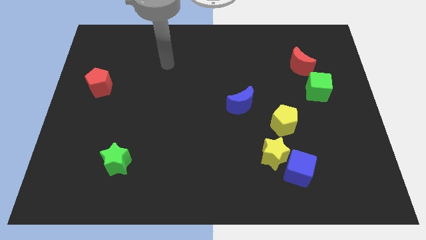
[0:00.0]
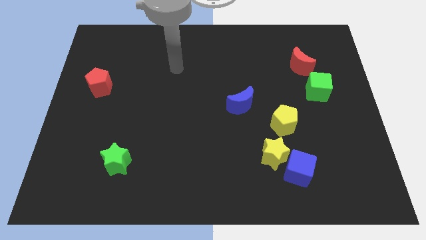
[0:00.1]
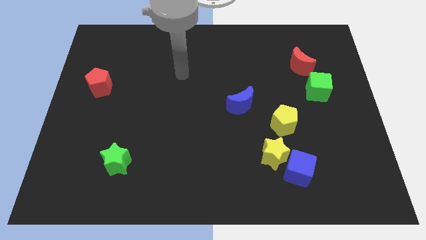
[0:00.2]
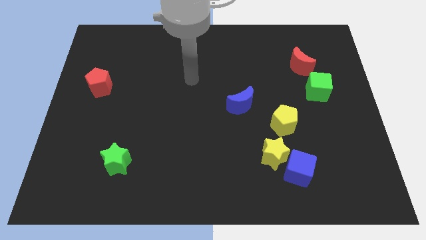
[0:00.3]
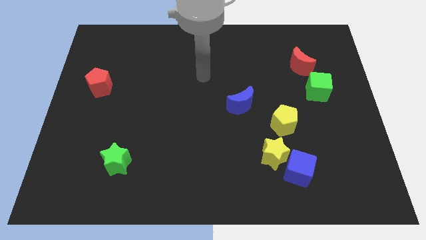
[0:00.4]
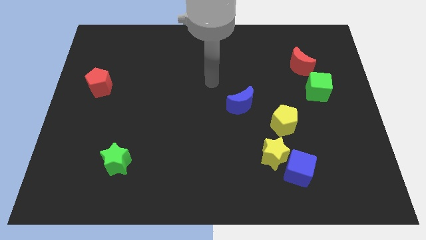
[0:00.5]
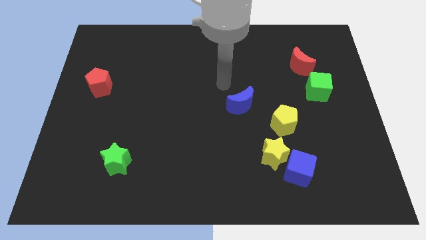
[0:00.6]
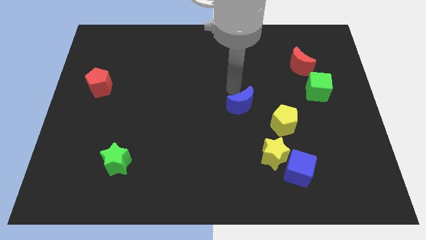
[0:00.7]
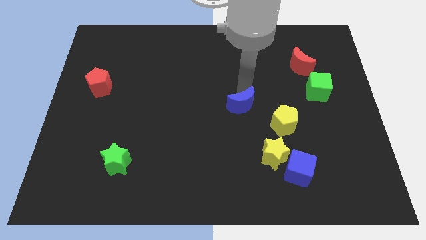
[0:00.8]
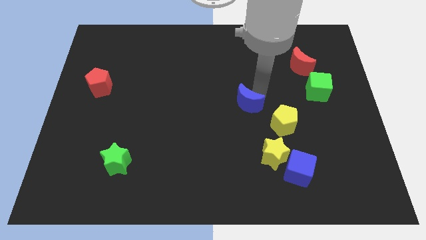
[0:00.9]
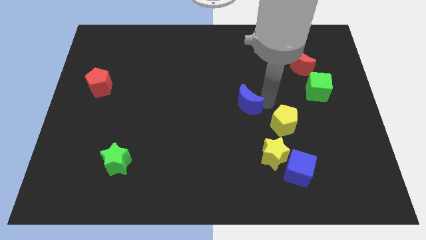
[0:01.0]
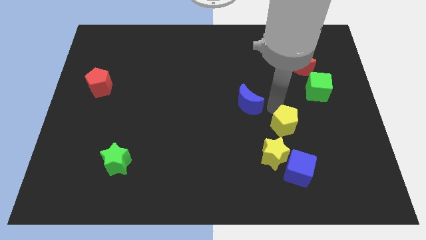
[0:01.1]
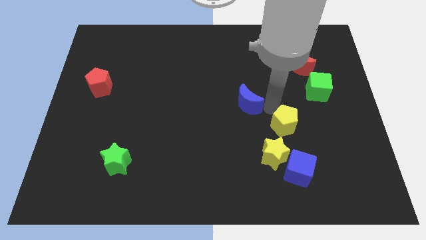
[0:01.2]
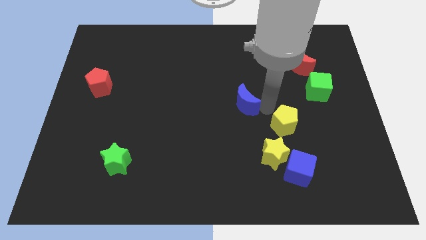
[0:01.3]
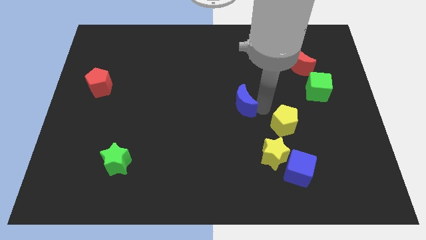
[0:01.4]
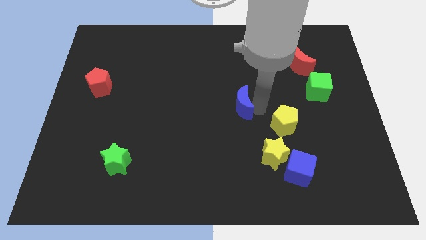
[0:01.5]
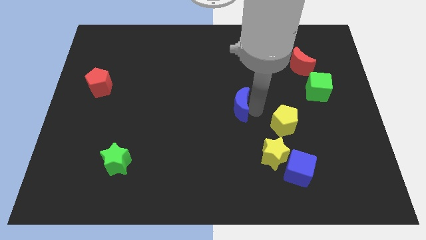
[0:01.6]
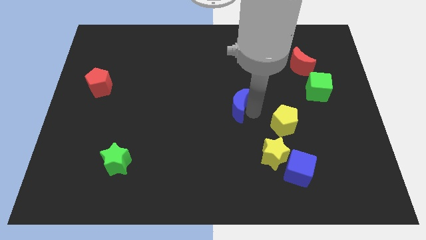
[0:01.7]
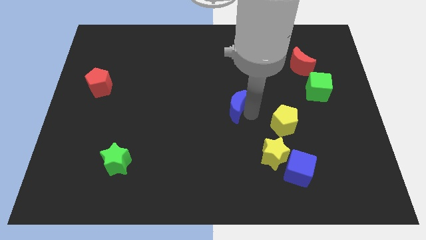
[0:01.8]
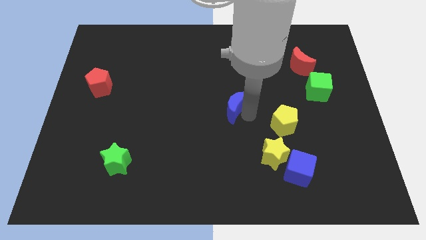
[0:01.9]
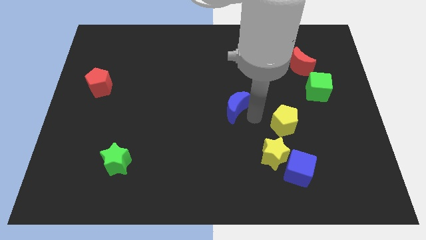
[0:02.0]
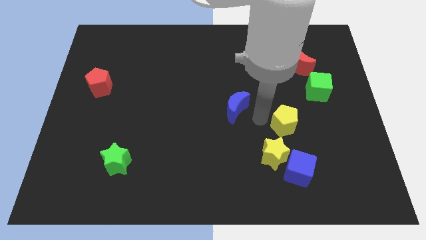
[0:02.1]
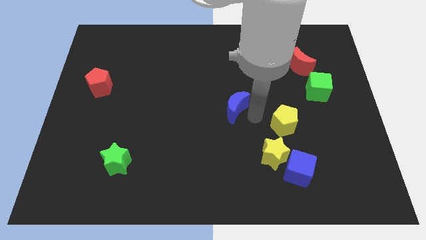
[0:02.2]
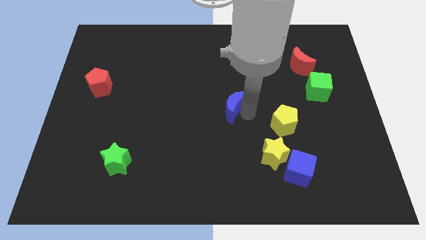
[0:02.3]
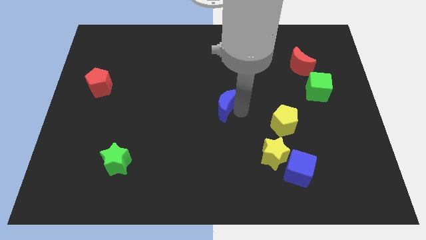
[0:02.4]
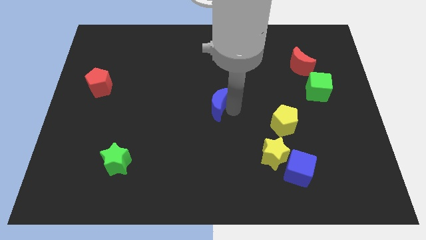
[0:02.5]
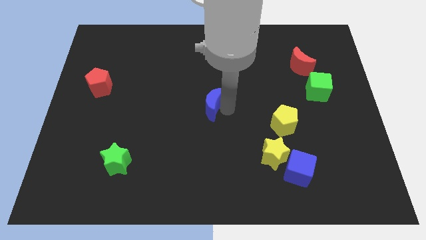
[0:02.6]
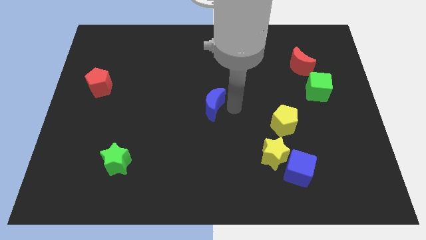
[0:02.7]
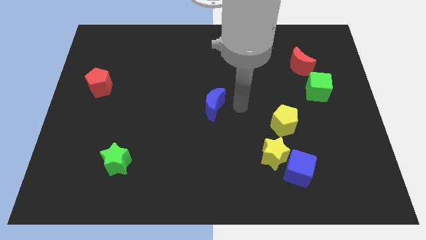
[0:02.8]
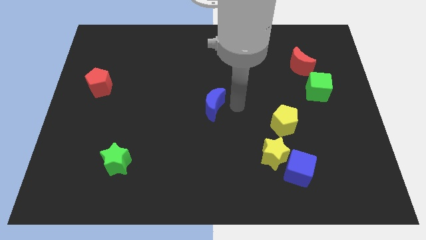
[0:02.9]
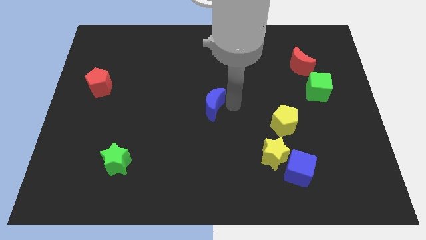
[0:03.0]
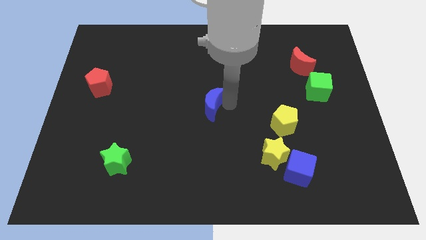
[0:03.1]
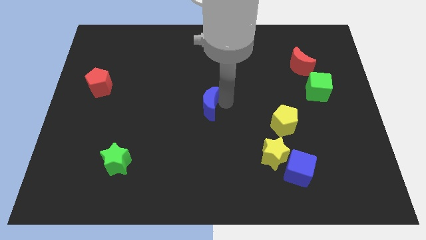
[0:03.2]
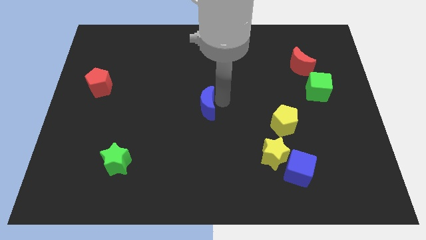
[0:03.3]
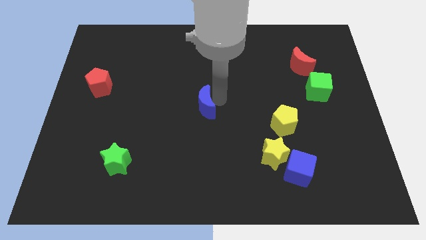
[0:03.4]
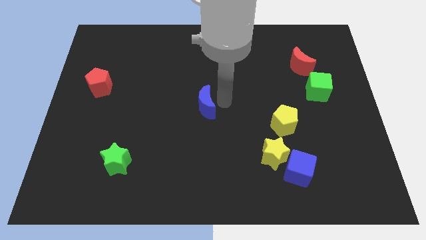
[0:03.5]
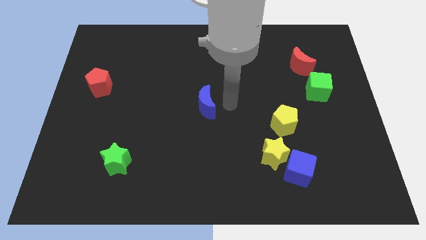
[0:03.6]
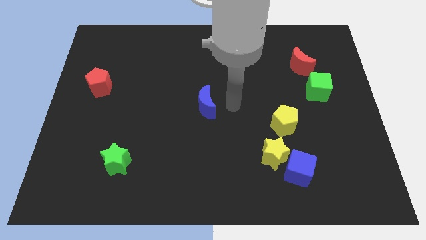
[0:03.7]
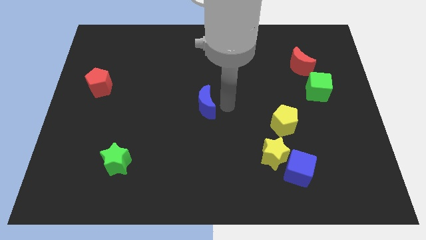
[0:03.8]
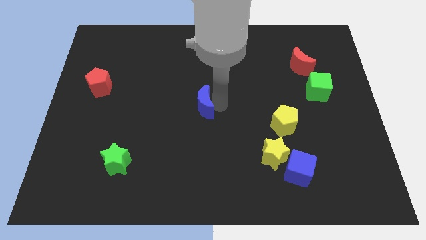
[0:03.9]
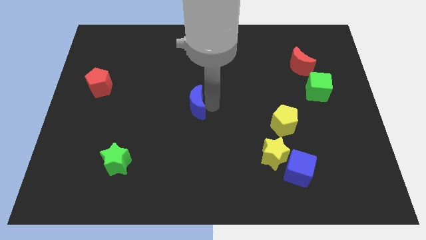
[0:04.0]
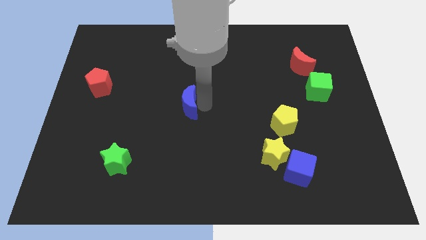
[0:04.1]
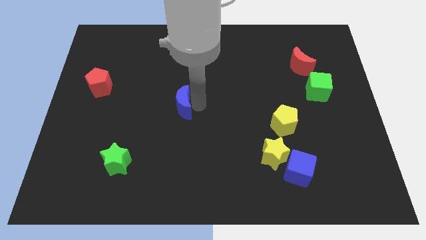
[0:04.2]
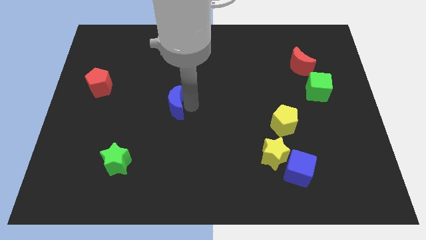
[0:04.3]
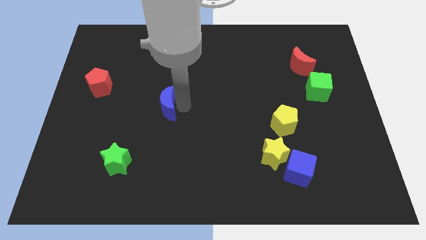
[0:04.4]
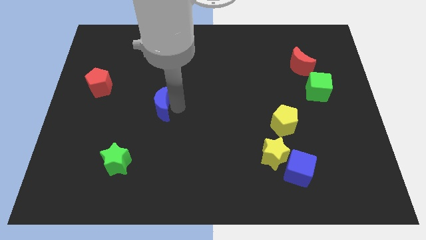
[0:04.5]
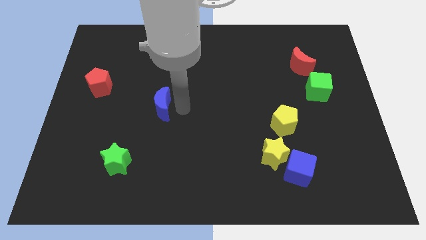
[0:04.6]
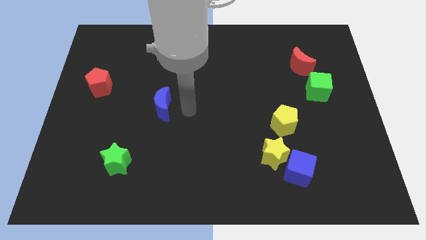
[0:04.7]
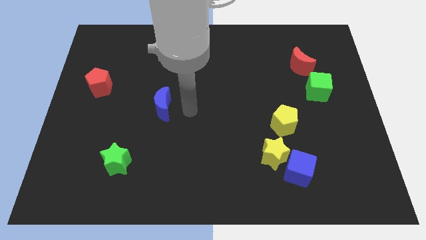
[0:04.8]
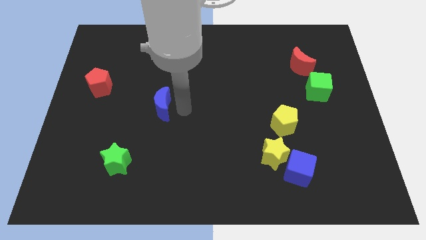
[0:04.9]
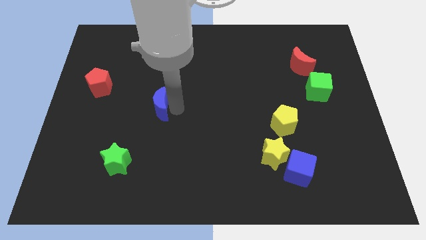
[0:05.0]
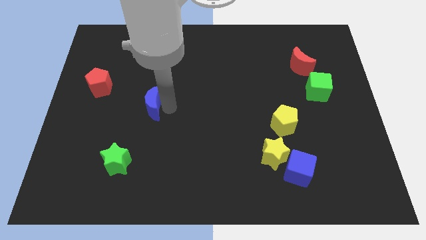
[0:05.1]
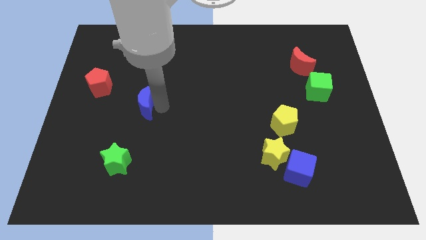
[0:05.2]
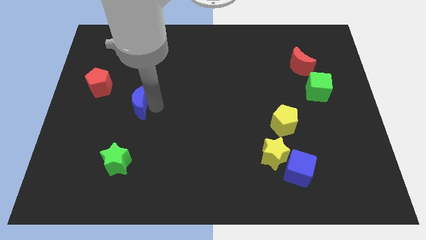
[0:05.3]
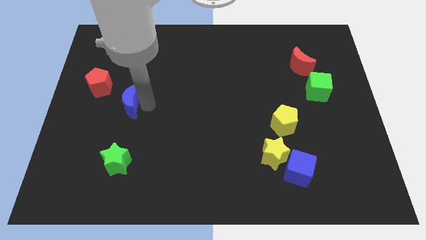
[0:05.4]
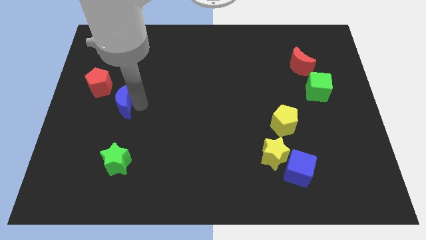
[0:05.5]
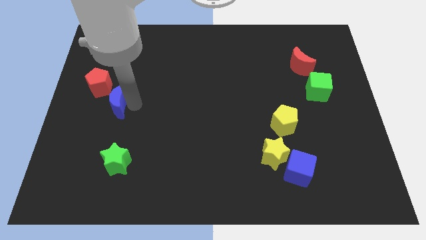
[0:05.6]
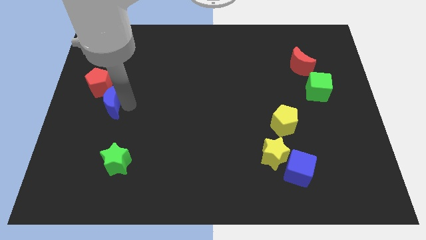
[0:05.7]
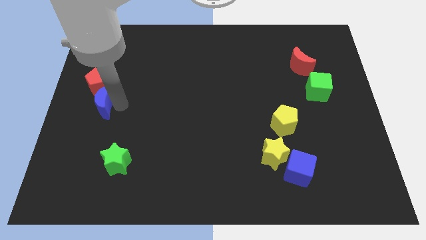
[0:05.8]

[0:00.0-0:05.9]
put the blue moon to the left side

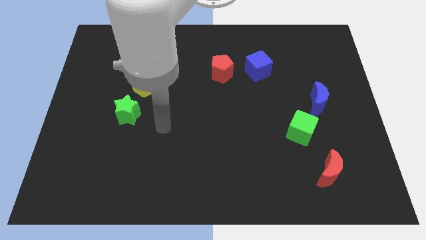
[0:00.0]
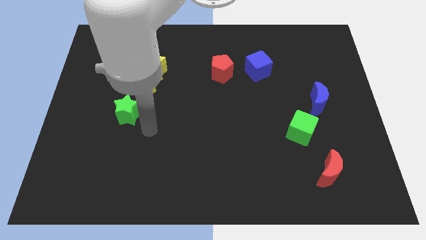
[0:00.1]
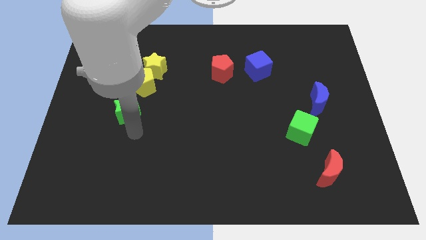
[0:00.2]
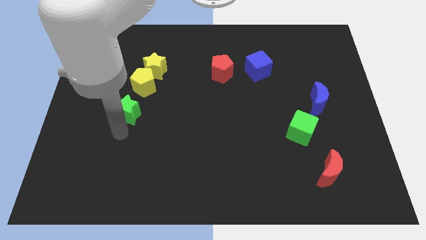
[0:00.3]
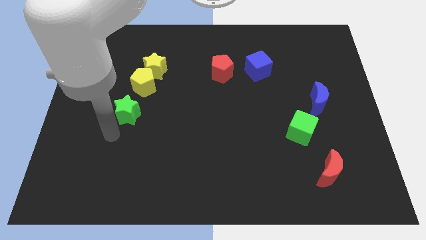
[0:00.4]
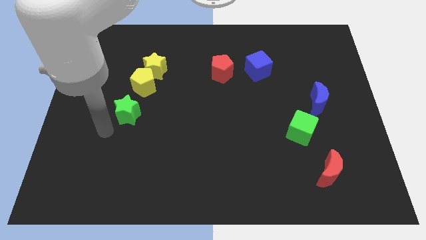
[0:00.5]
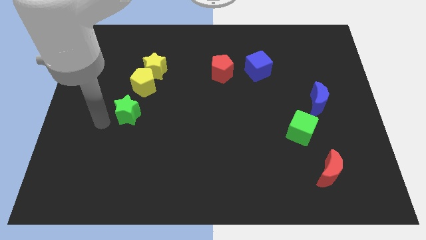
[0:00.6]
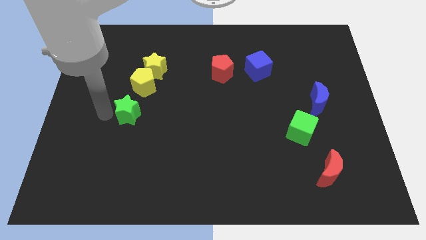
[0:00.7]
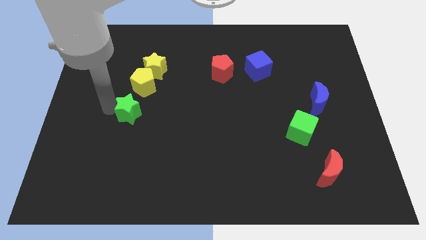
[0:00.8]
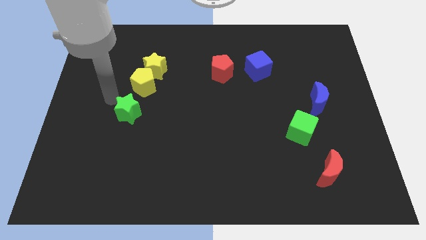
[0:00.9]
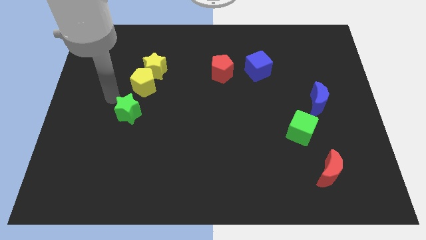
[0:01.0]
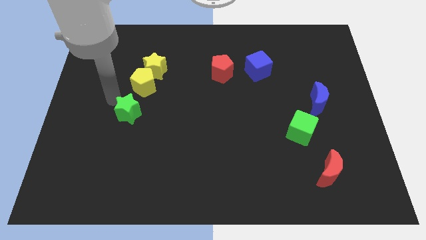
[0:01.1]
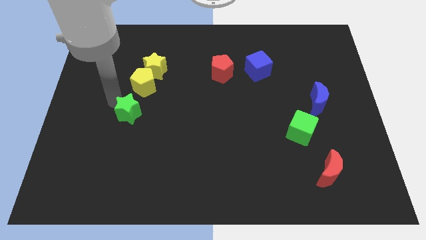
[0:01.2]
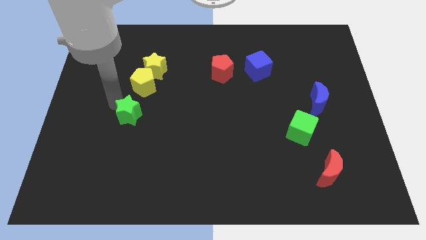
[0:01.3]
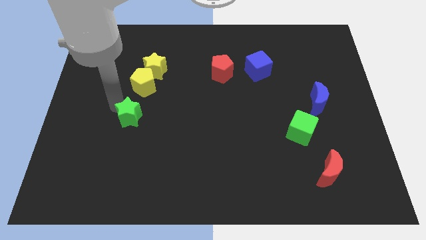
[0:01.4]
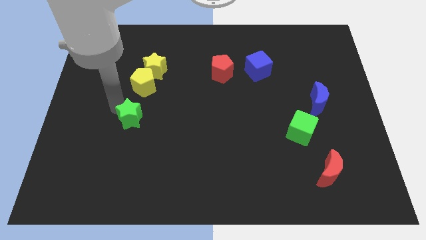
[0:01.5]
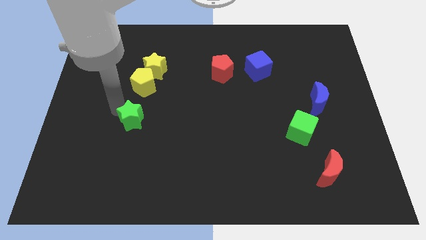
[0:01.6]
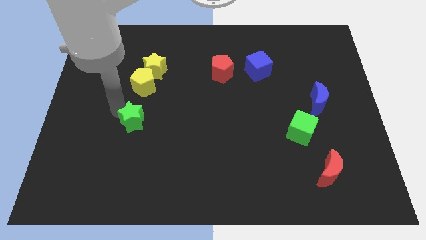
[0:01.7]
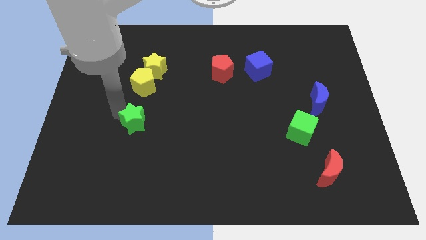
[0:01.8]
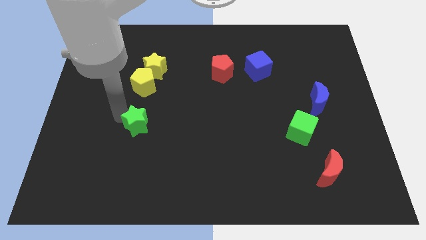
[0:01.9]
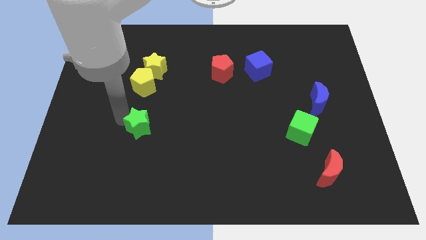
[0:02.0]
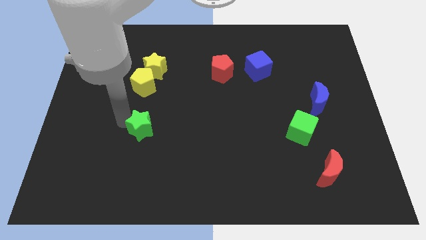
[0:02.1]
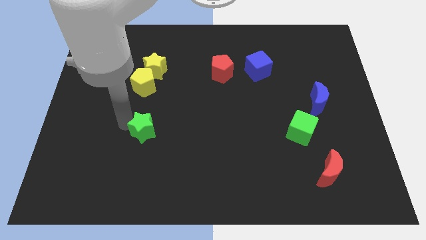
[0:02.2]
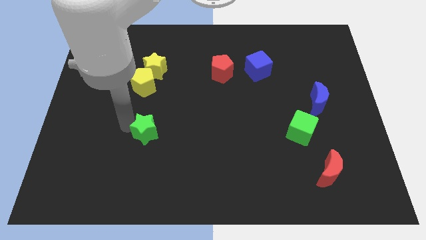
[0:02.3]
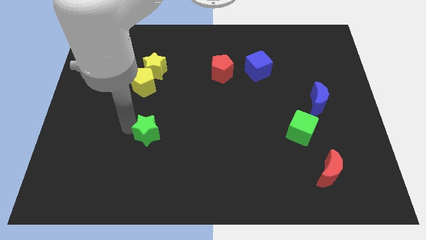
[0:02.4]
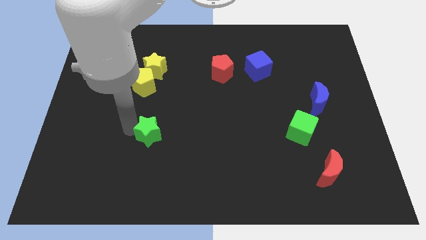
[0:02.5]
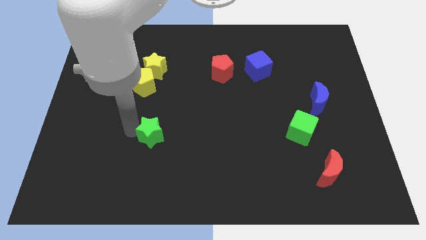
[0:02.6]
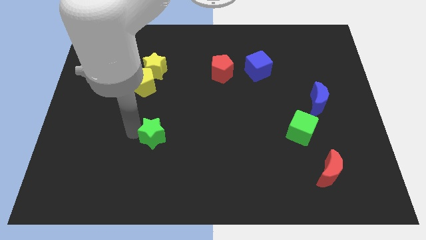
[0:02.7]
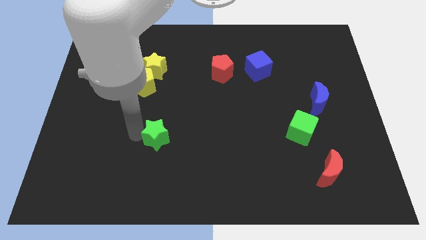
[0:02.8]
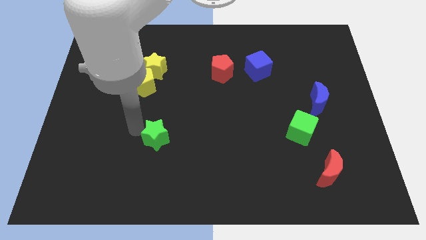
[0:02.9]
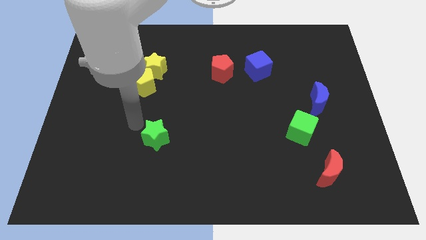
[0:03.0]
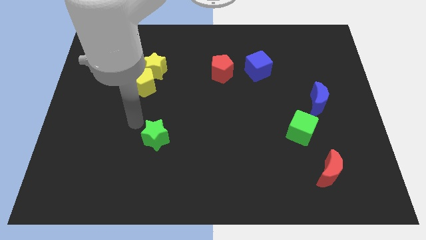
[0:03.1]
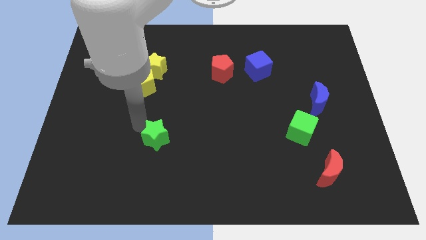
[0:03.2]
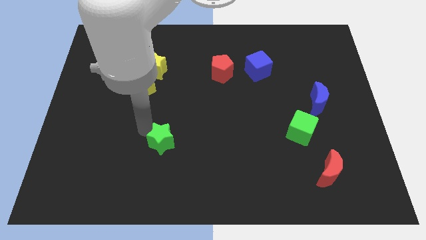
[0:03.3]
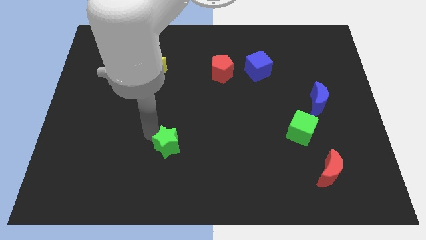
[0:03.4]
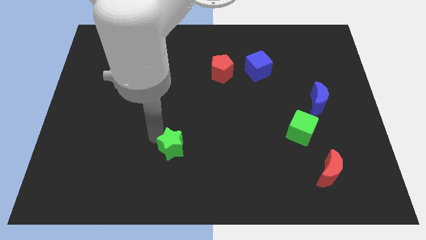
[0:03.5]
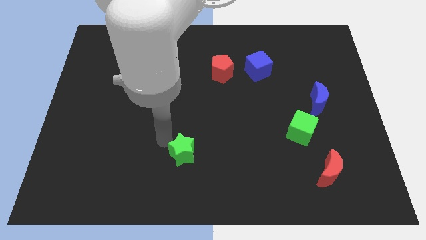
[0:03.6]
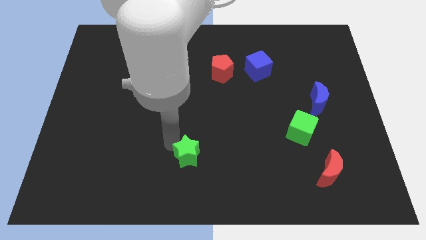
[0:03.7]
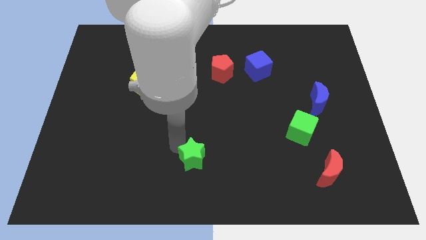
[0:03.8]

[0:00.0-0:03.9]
move the green star to the bottom side
